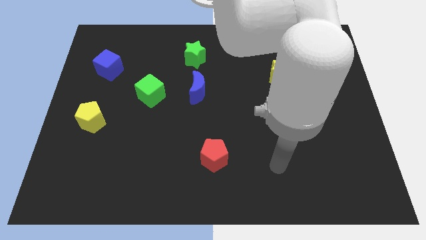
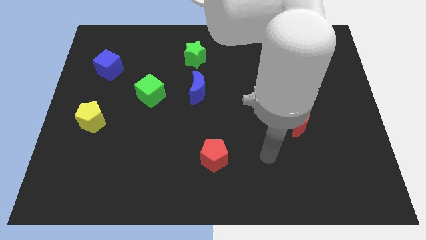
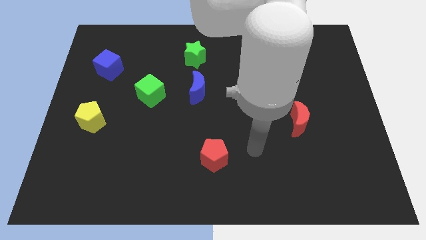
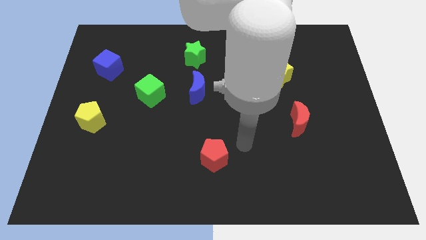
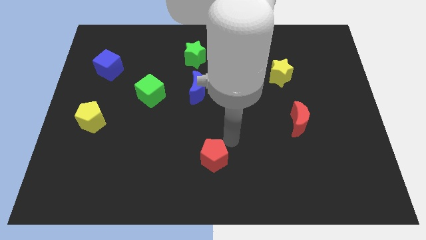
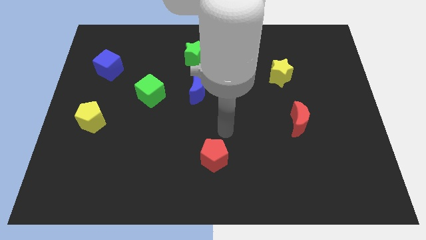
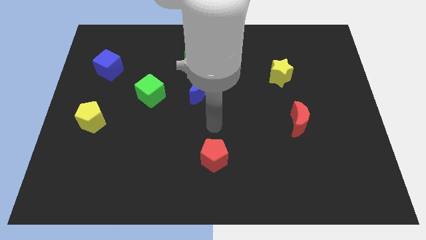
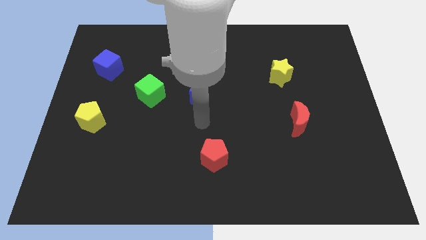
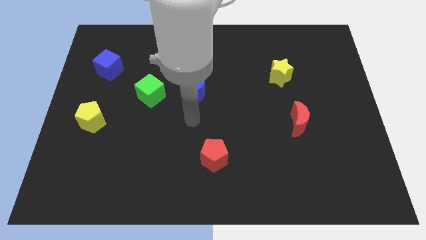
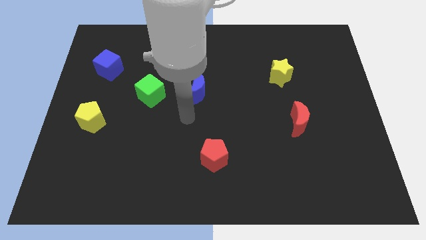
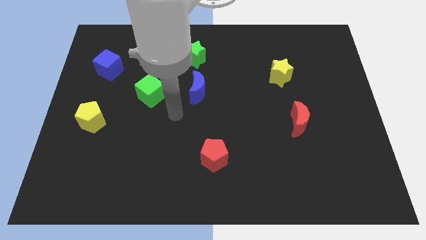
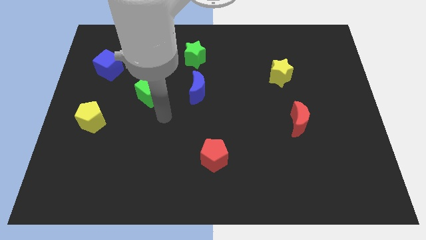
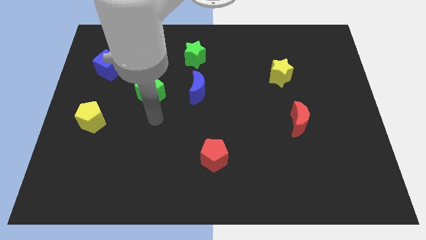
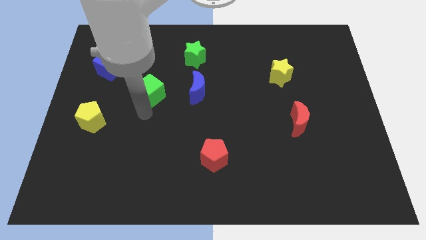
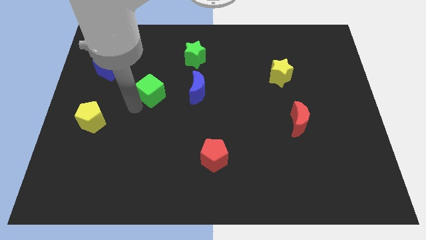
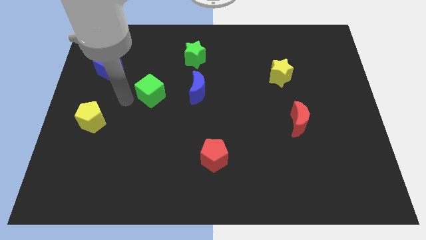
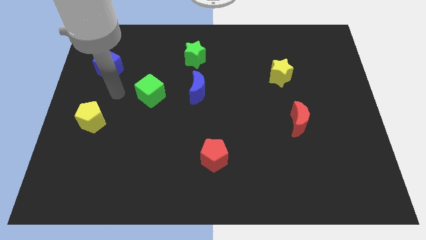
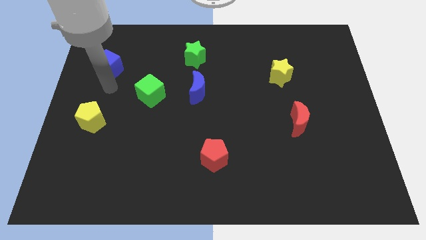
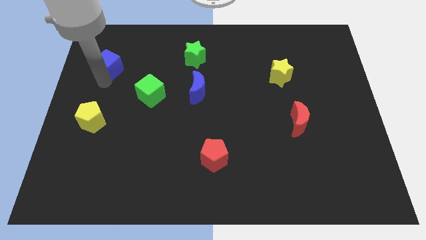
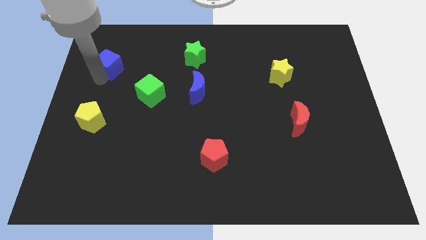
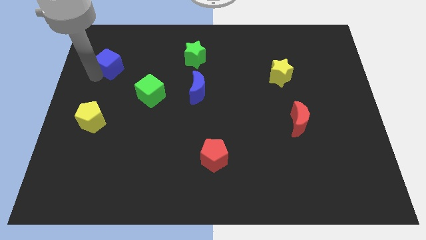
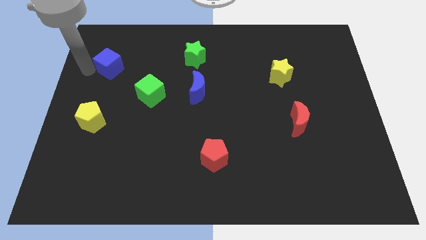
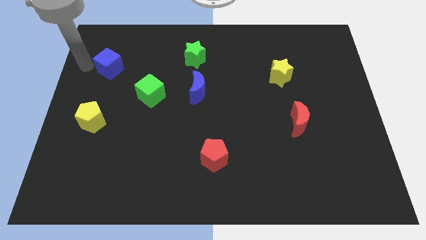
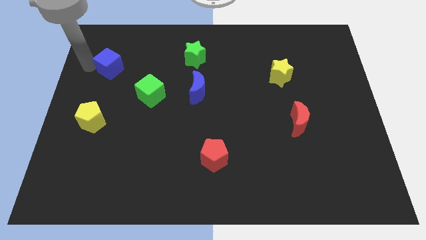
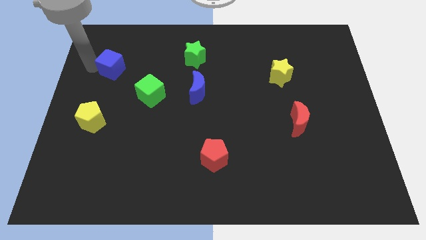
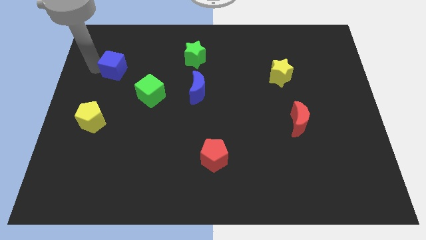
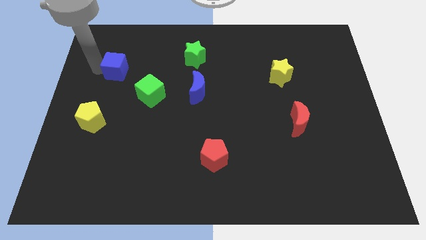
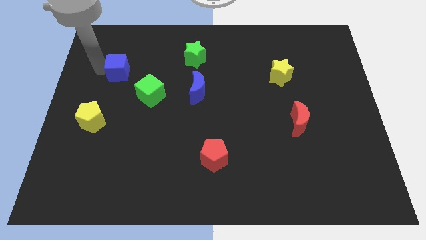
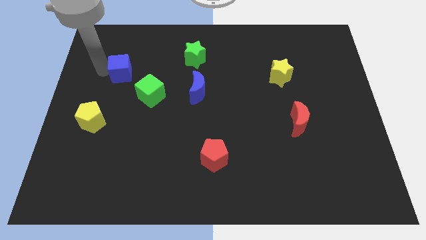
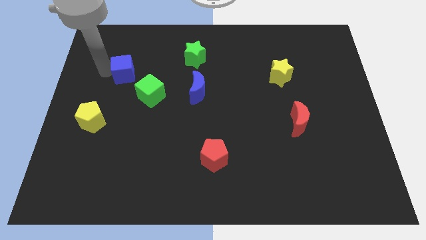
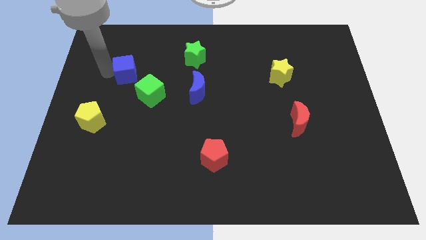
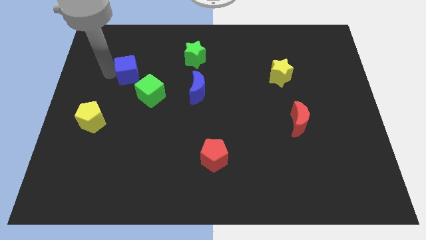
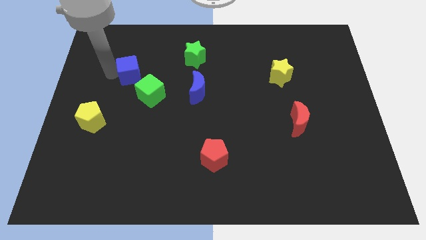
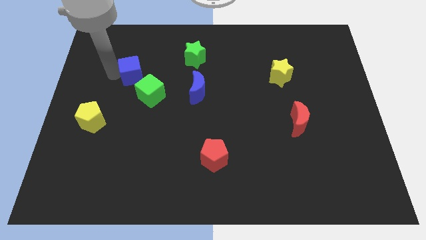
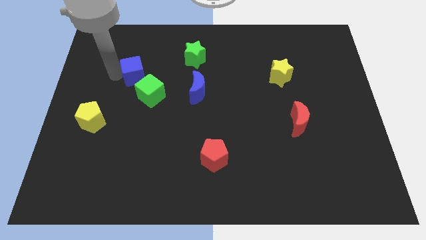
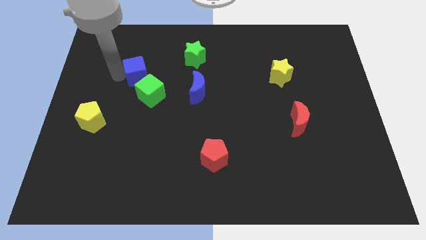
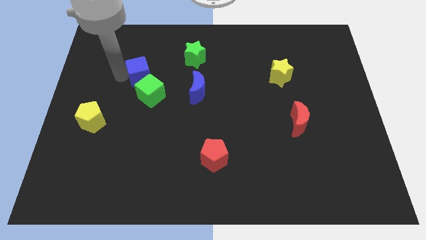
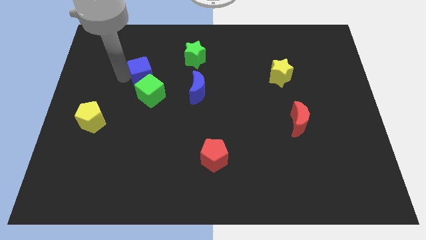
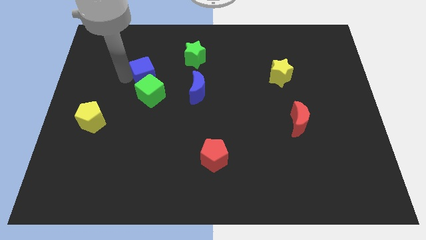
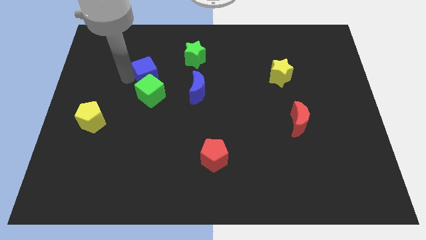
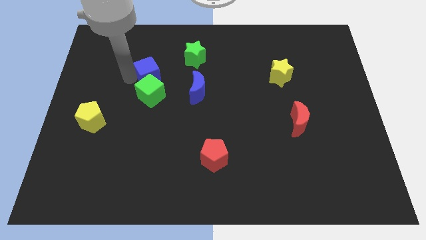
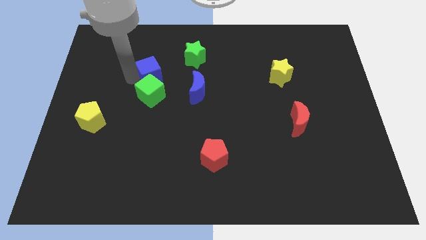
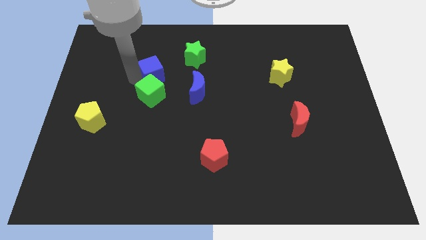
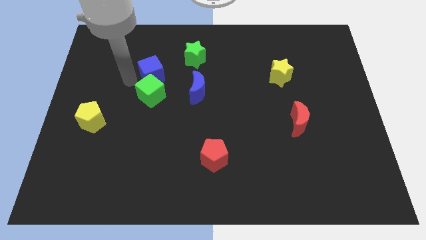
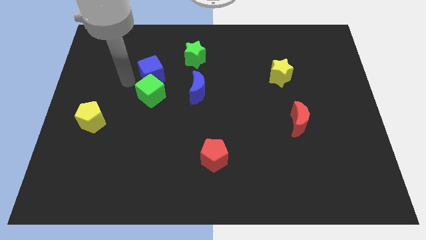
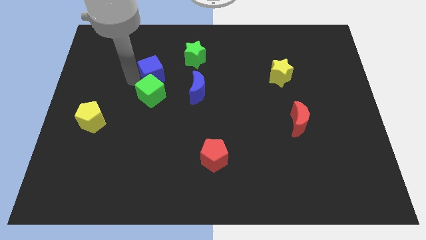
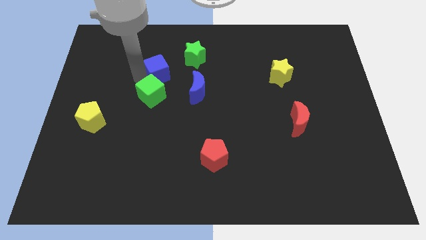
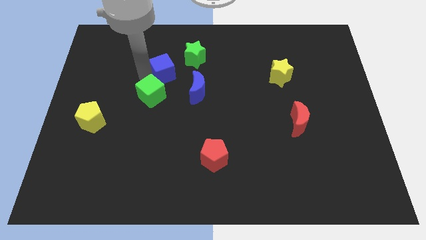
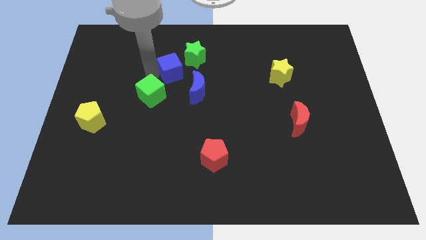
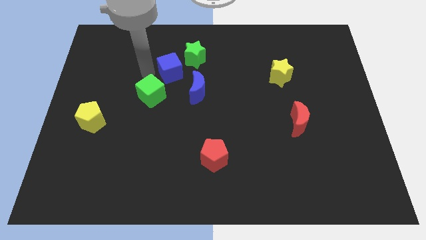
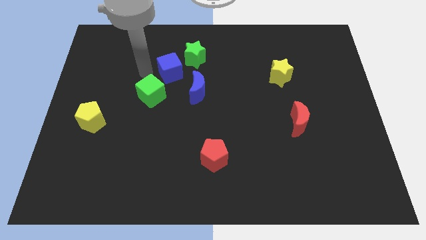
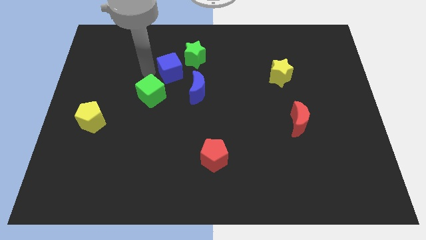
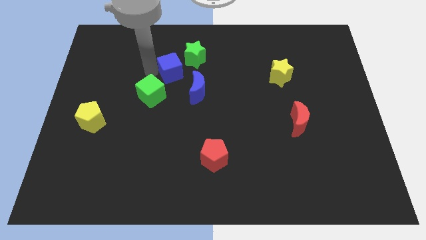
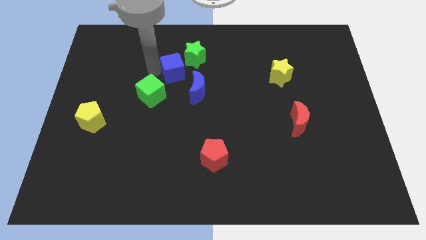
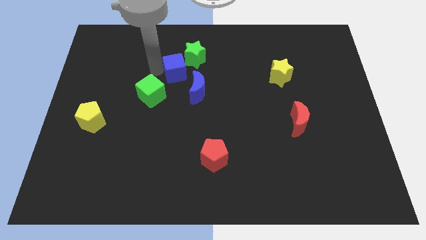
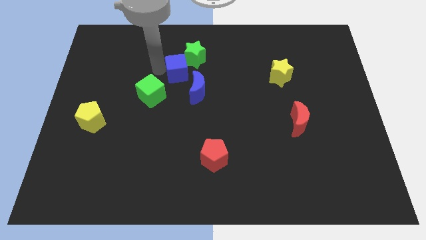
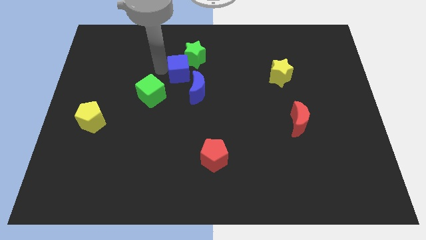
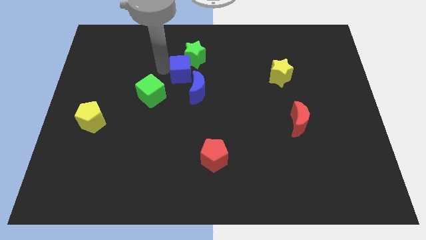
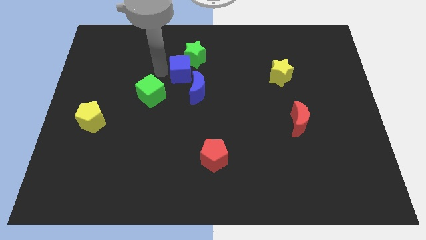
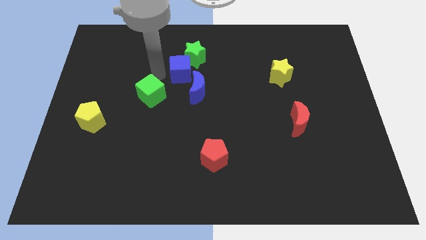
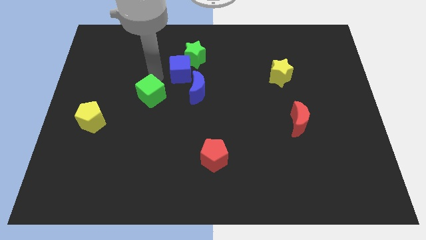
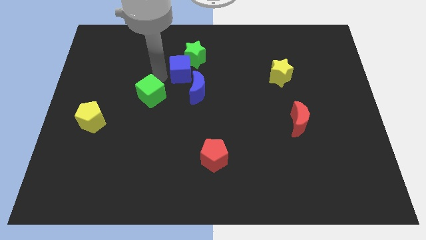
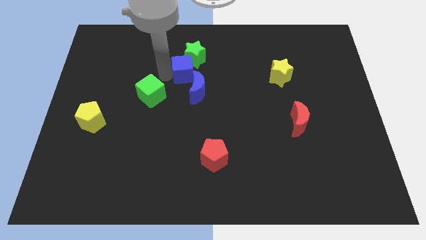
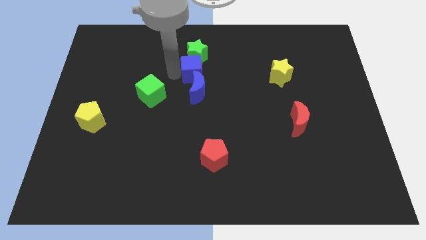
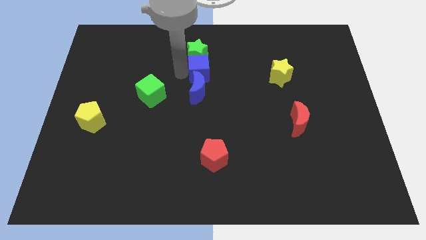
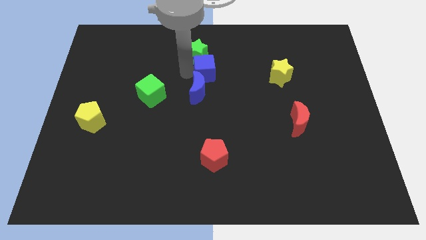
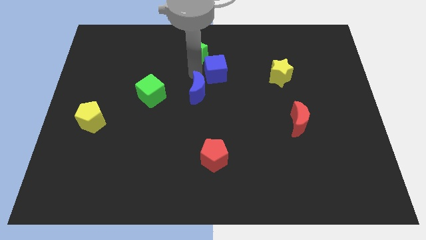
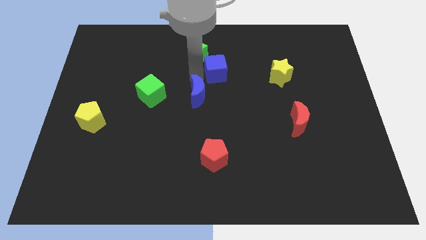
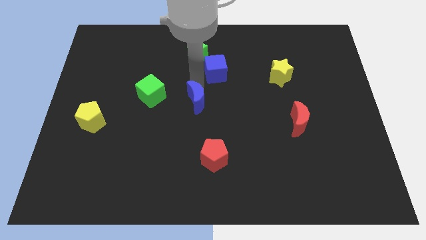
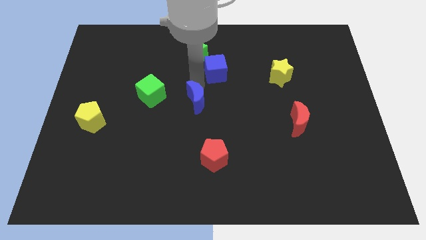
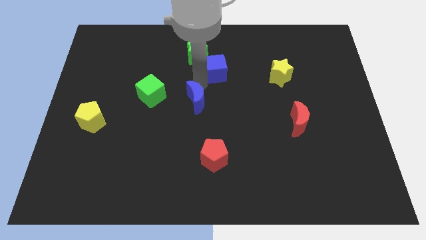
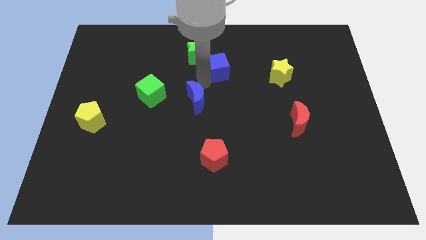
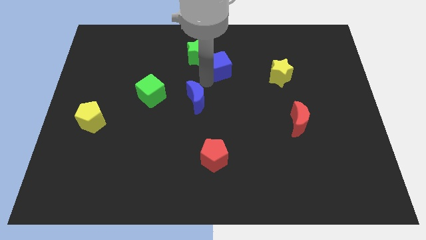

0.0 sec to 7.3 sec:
put the blue cube to the right of the green star

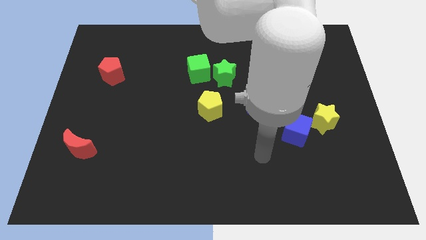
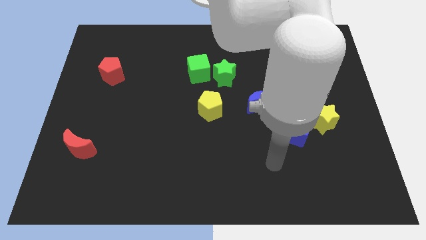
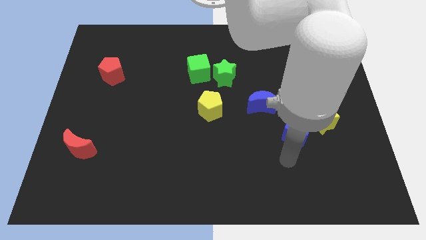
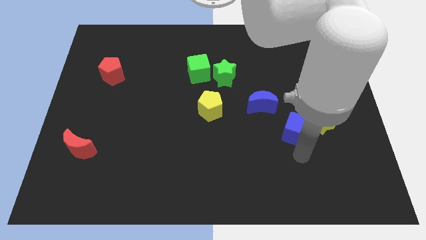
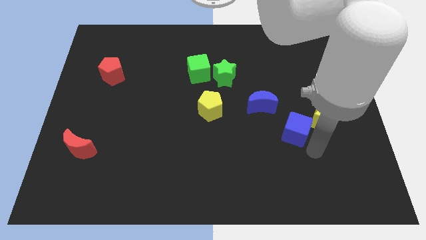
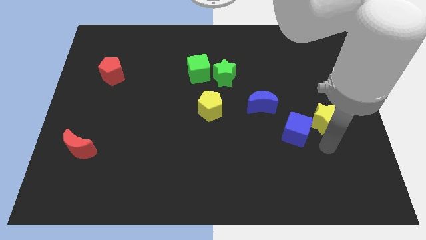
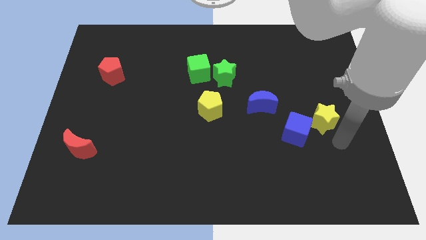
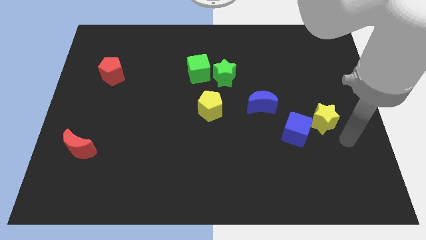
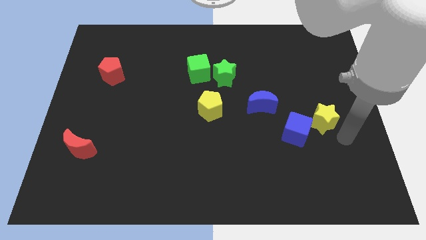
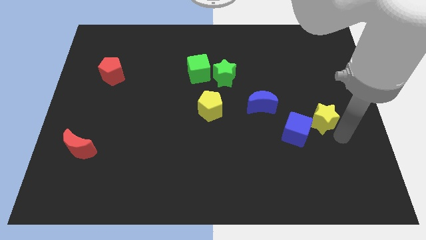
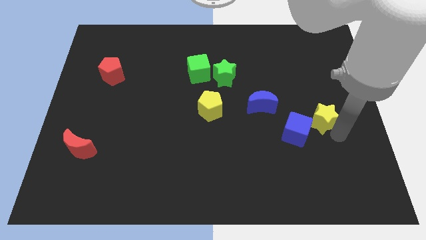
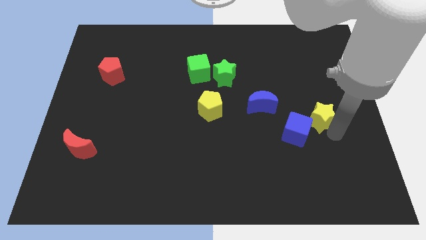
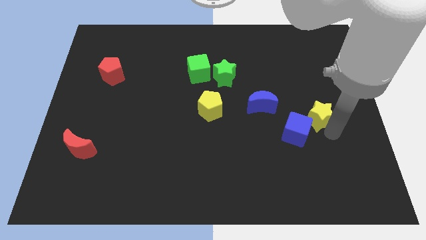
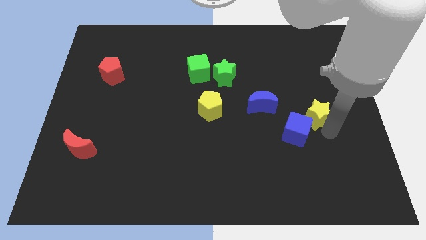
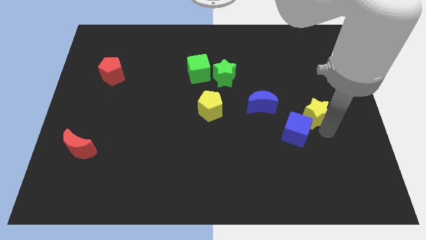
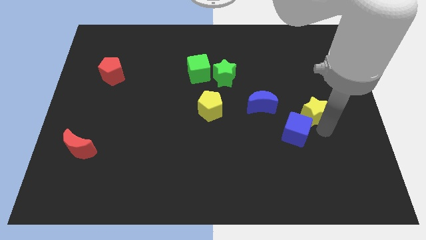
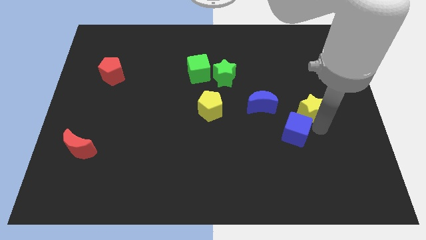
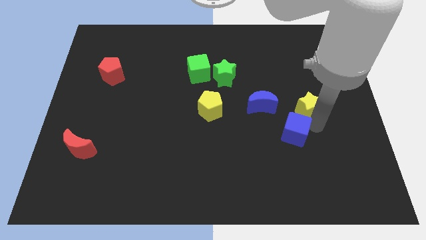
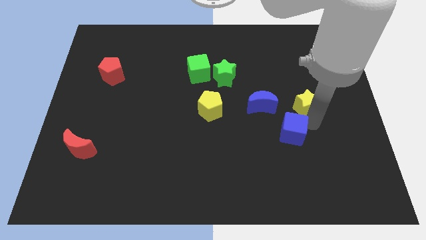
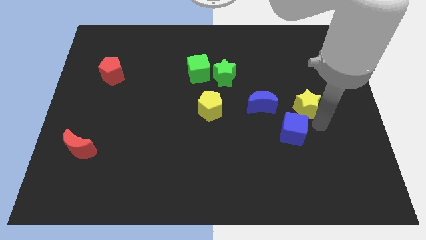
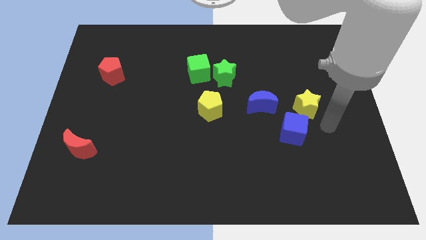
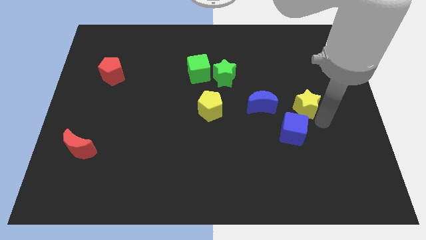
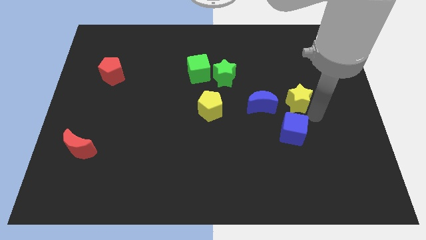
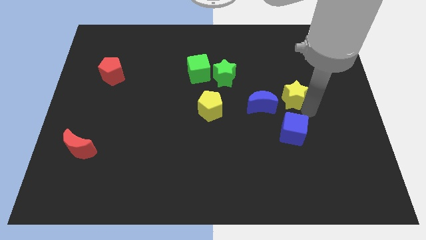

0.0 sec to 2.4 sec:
put the yellow star diagonally up and to the right of the blue moon
